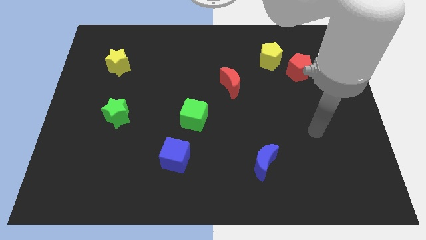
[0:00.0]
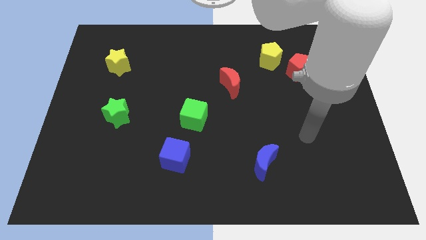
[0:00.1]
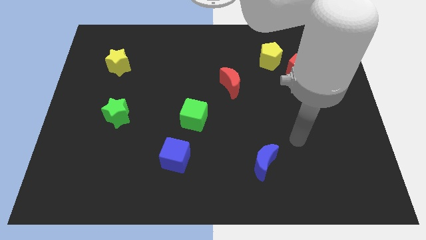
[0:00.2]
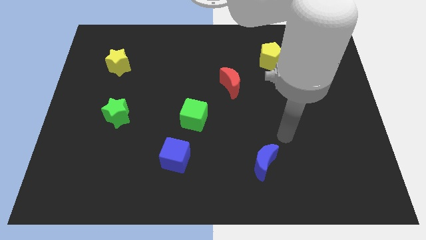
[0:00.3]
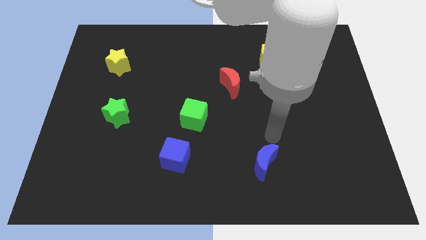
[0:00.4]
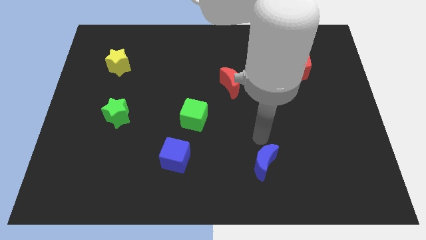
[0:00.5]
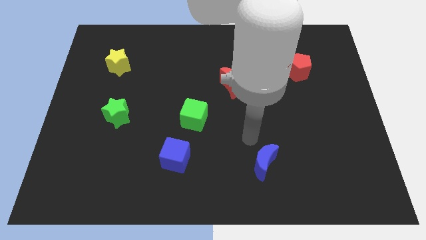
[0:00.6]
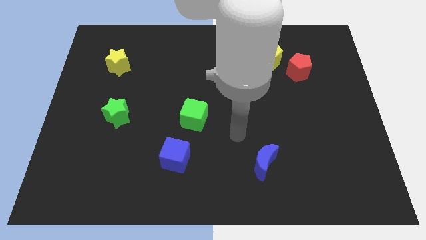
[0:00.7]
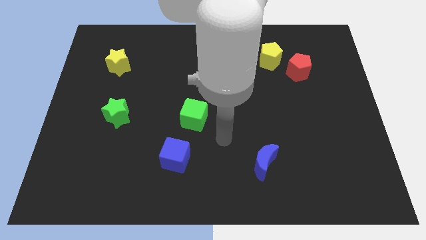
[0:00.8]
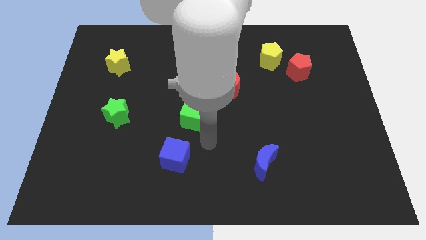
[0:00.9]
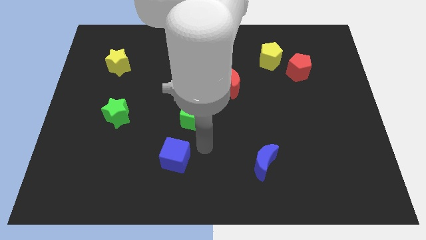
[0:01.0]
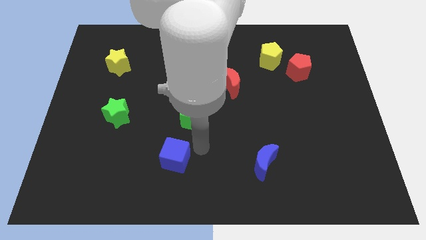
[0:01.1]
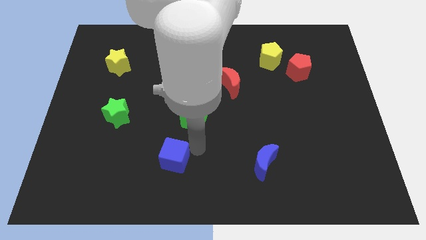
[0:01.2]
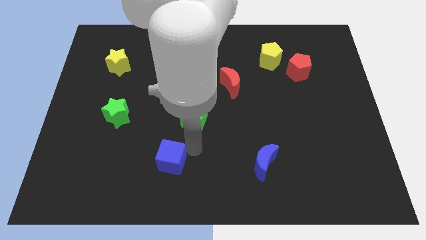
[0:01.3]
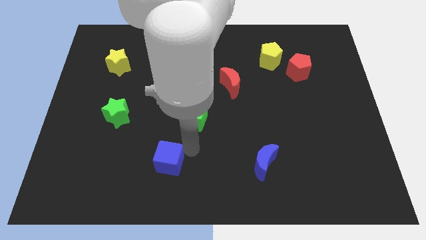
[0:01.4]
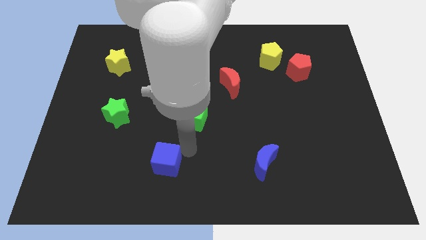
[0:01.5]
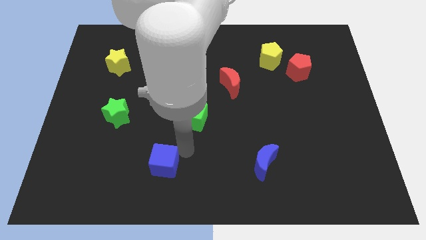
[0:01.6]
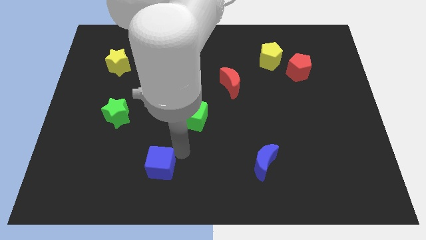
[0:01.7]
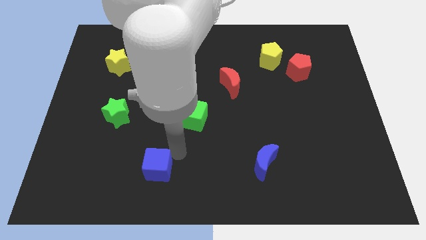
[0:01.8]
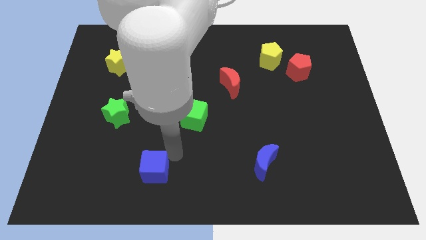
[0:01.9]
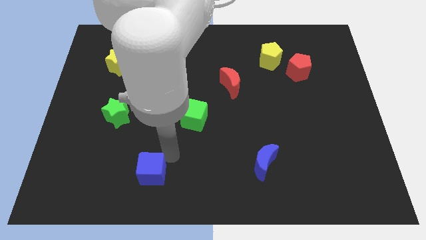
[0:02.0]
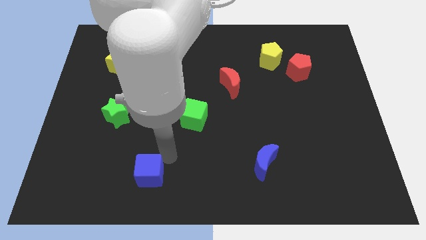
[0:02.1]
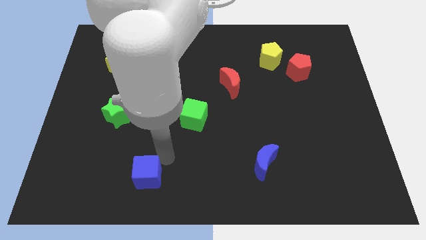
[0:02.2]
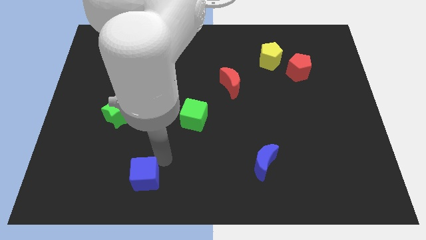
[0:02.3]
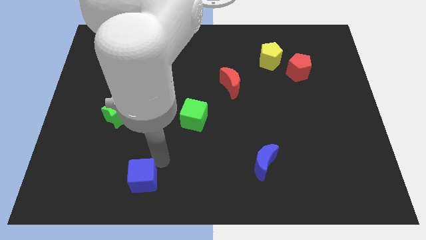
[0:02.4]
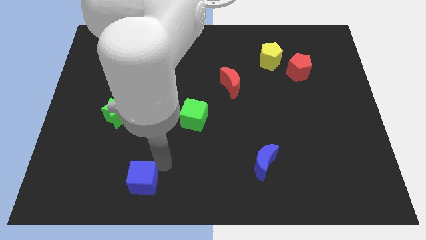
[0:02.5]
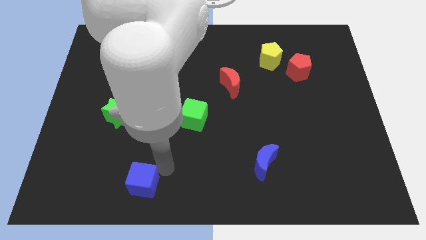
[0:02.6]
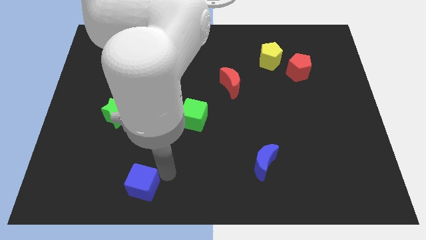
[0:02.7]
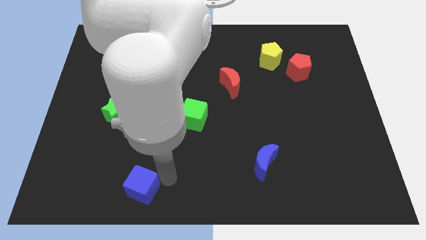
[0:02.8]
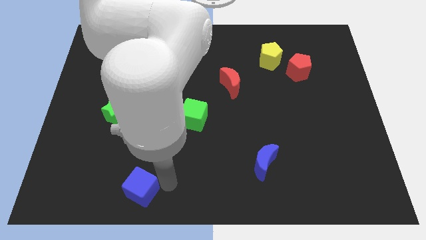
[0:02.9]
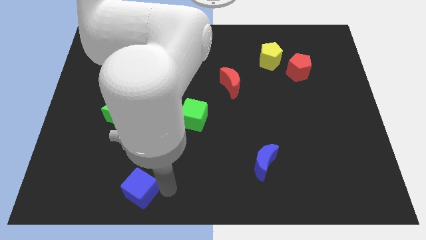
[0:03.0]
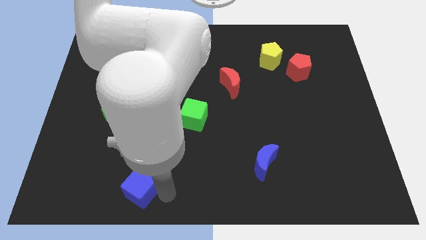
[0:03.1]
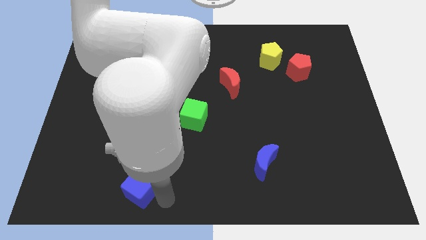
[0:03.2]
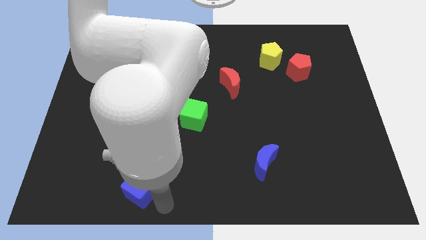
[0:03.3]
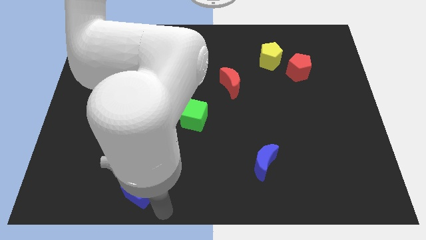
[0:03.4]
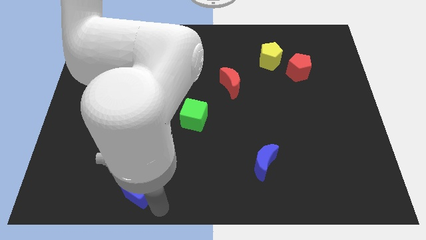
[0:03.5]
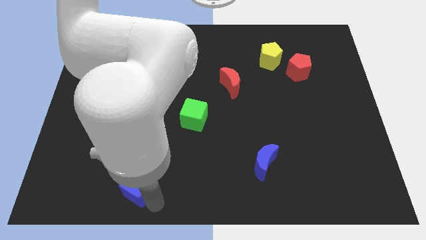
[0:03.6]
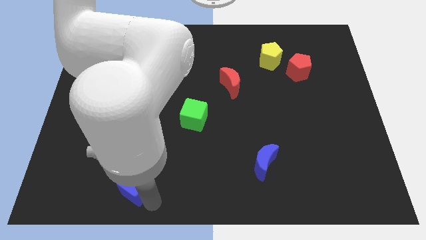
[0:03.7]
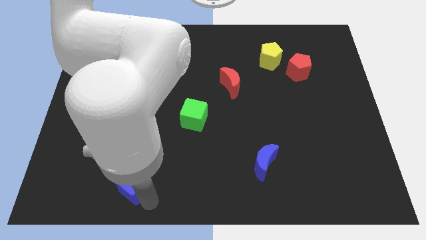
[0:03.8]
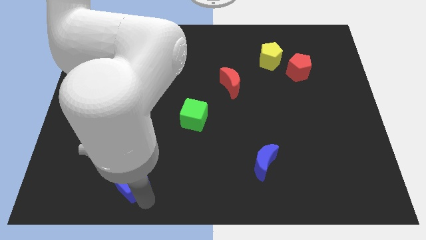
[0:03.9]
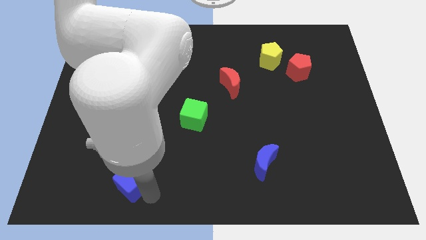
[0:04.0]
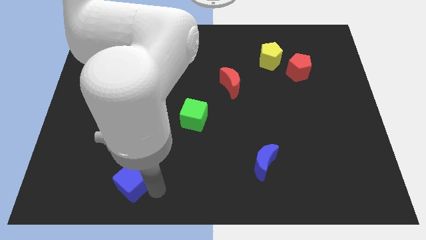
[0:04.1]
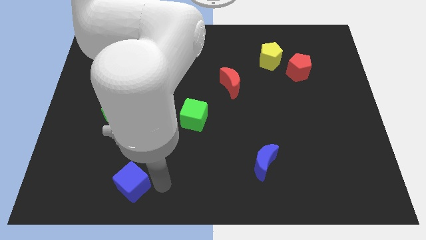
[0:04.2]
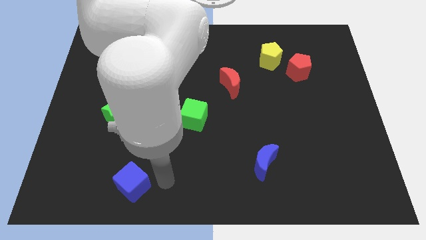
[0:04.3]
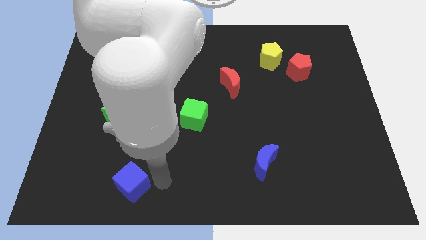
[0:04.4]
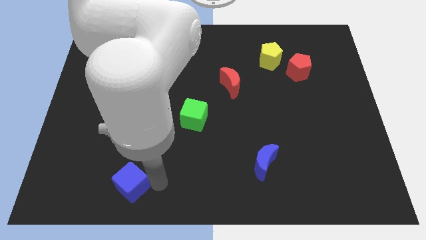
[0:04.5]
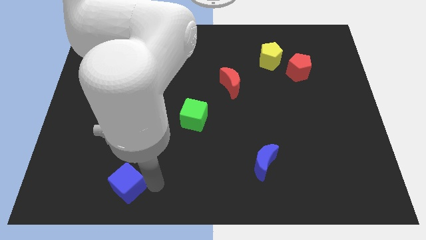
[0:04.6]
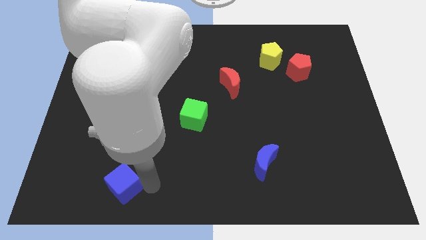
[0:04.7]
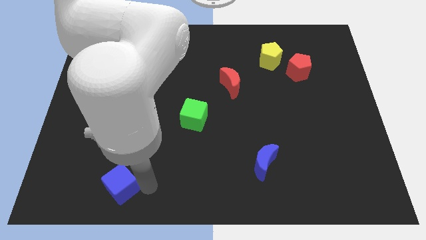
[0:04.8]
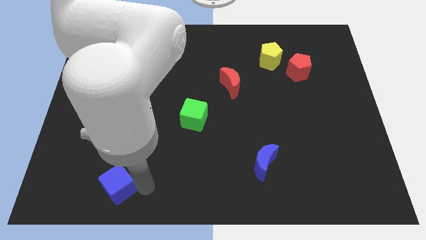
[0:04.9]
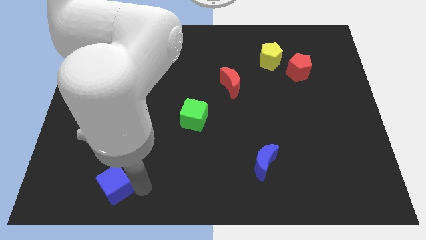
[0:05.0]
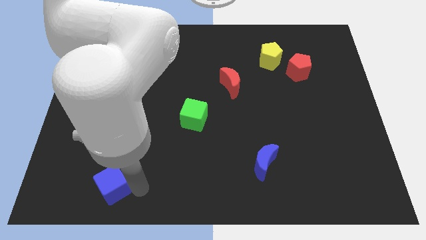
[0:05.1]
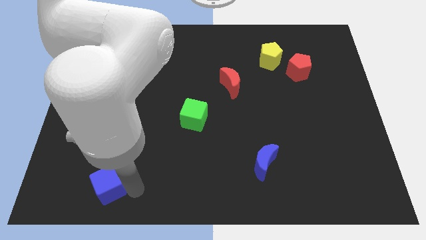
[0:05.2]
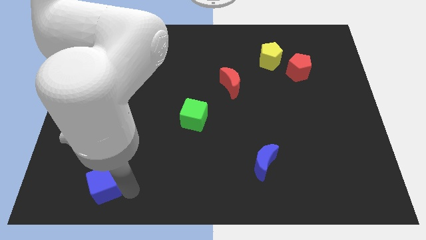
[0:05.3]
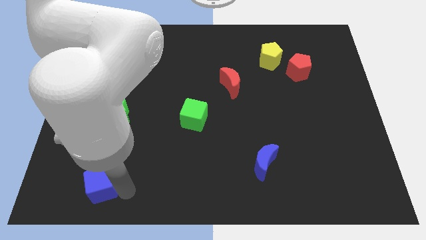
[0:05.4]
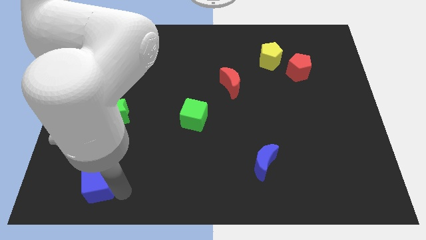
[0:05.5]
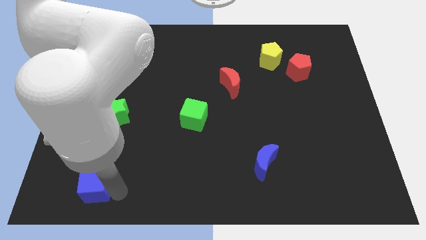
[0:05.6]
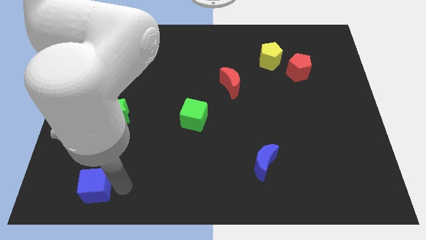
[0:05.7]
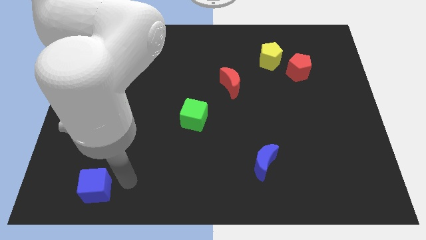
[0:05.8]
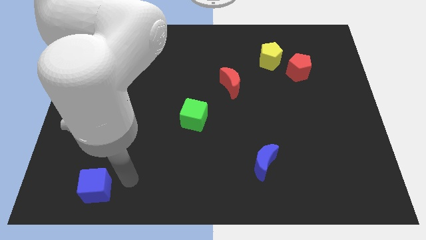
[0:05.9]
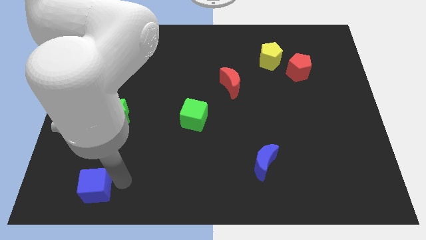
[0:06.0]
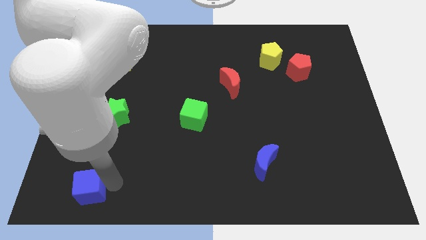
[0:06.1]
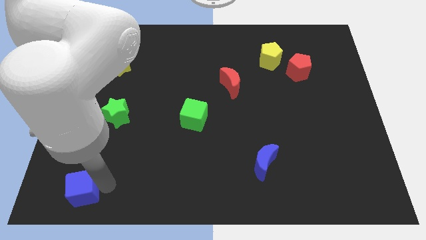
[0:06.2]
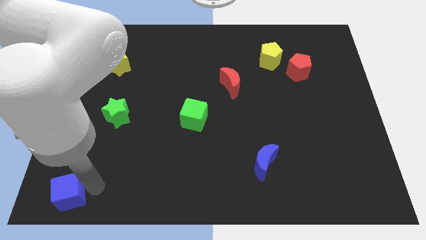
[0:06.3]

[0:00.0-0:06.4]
push the blue cube to the bottom left corner

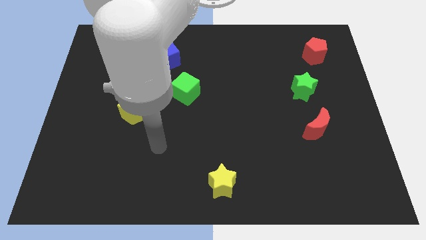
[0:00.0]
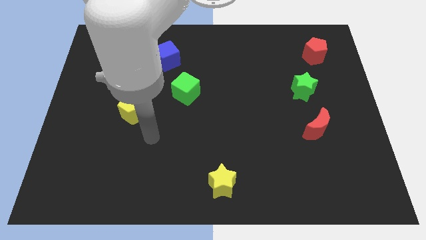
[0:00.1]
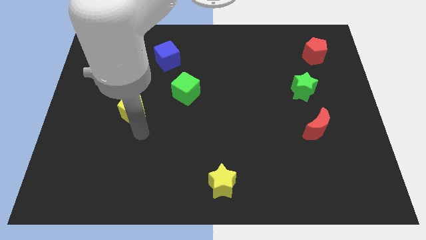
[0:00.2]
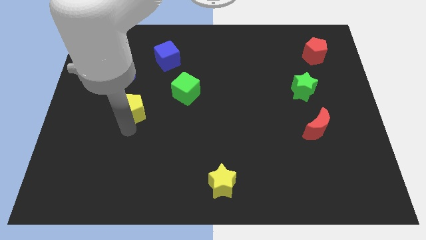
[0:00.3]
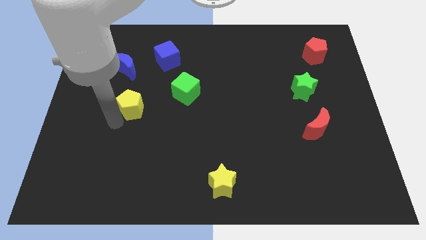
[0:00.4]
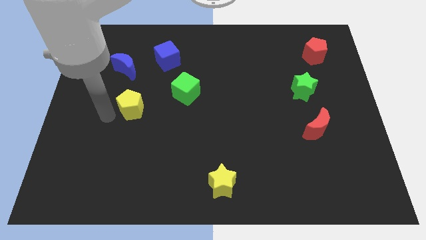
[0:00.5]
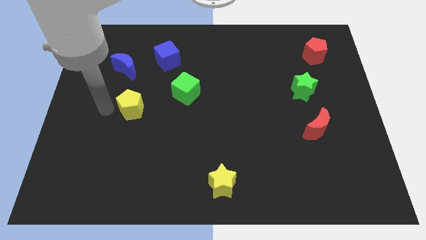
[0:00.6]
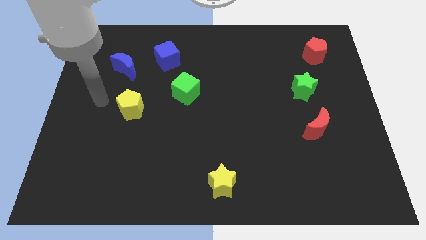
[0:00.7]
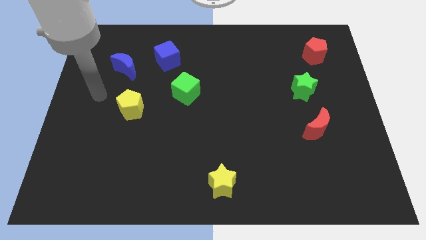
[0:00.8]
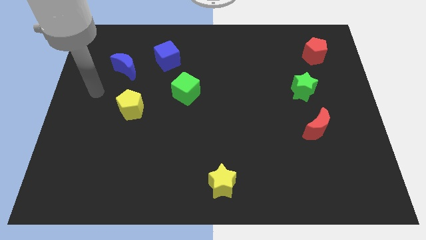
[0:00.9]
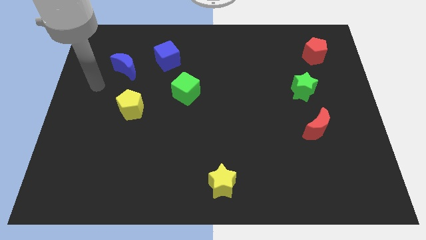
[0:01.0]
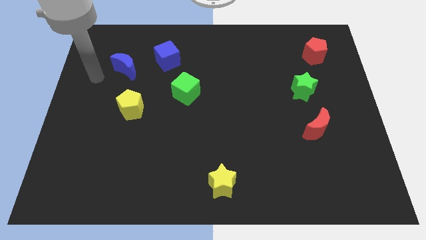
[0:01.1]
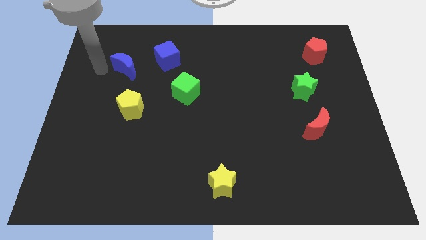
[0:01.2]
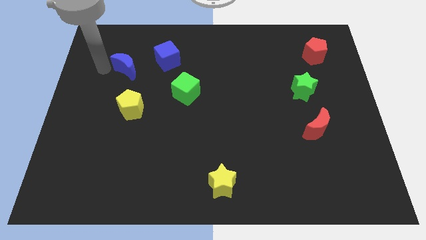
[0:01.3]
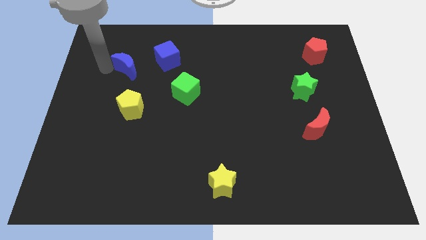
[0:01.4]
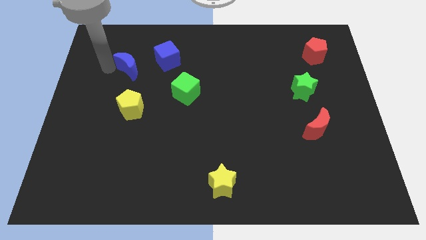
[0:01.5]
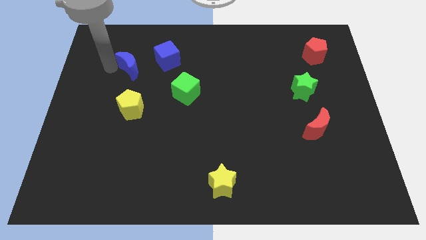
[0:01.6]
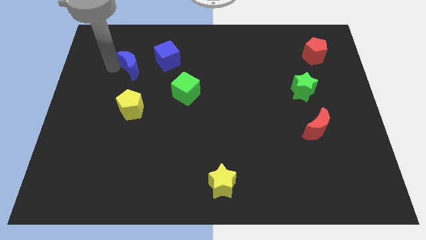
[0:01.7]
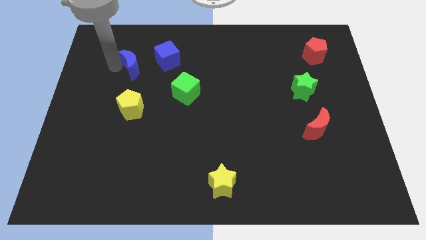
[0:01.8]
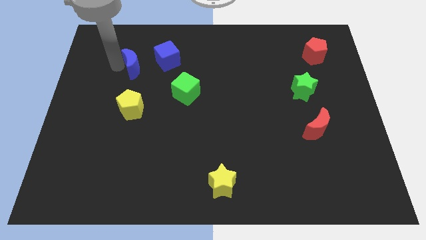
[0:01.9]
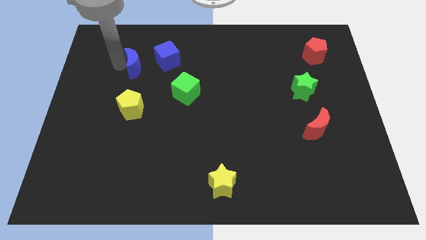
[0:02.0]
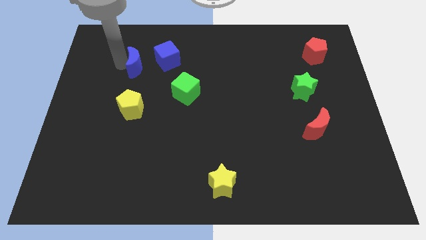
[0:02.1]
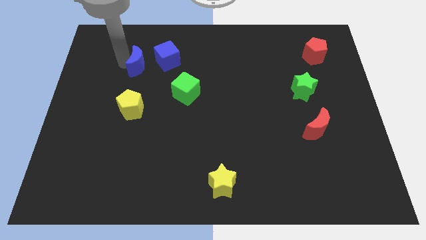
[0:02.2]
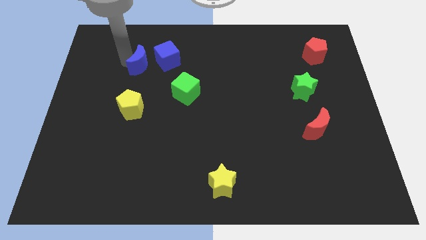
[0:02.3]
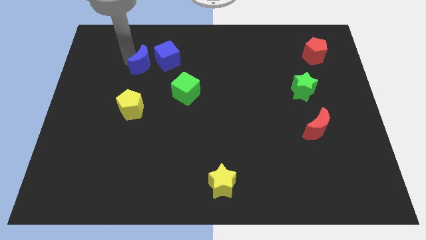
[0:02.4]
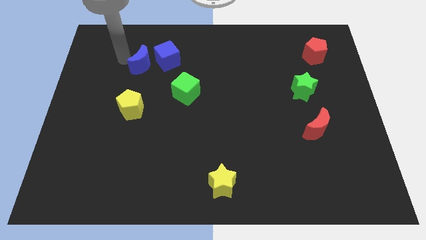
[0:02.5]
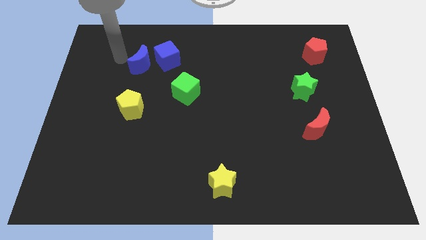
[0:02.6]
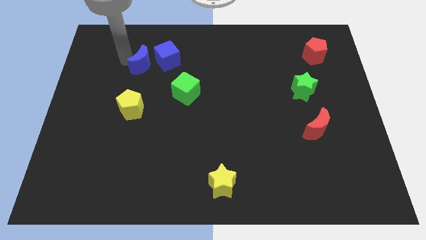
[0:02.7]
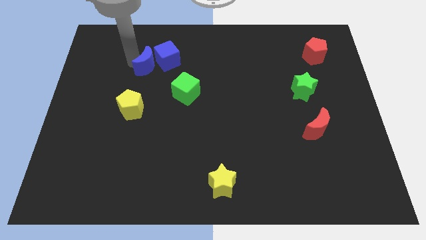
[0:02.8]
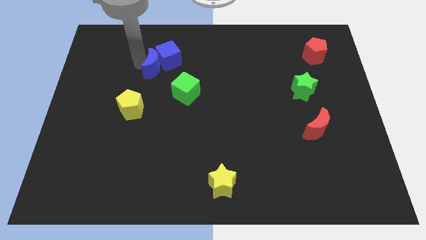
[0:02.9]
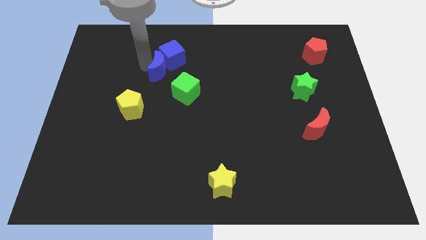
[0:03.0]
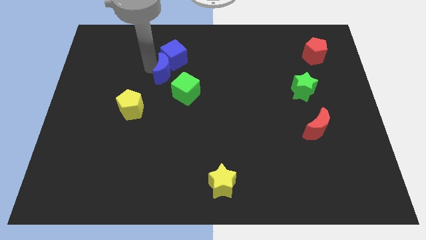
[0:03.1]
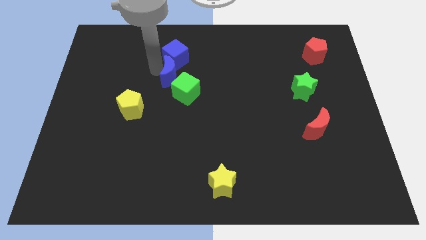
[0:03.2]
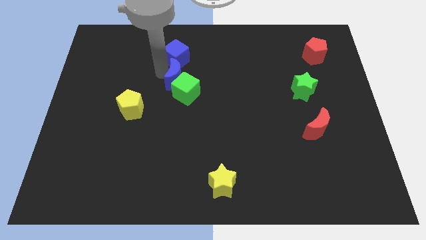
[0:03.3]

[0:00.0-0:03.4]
move the blue moon to the center
